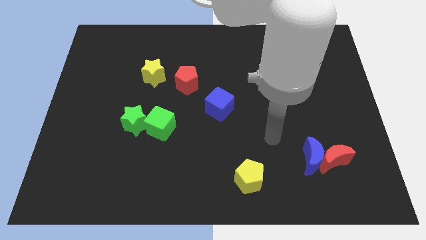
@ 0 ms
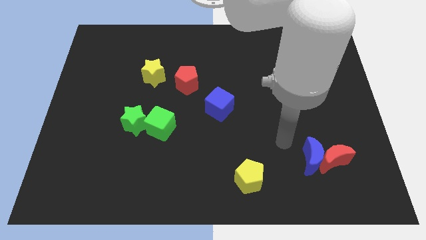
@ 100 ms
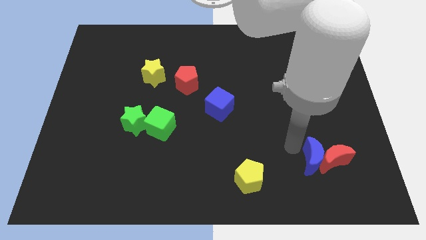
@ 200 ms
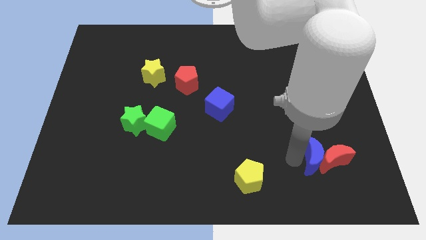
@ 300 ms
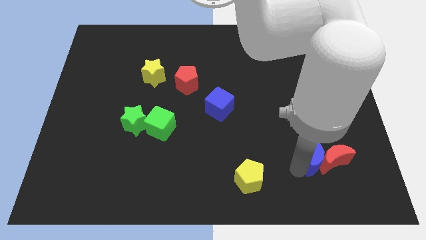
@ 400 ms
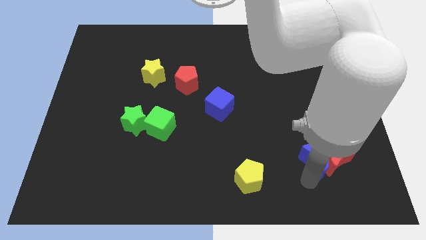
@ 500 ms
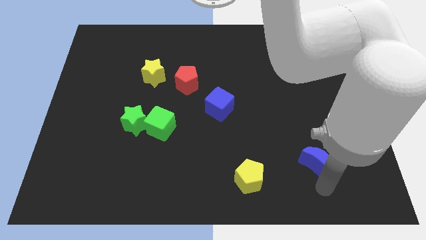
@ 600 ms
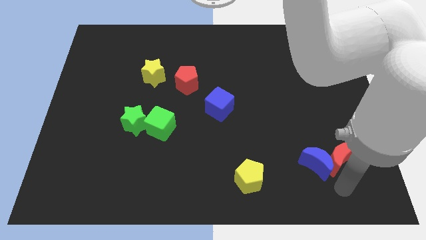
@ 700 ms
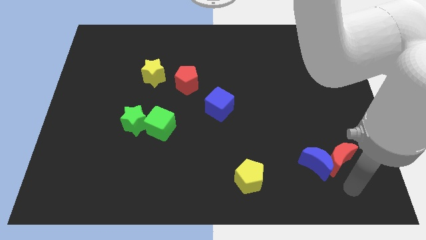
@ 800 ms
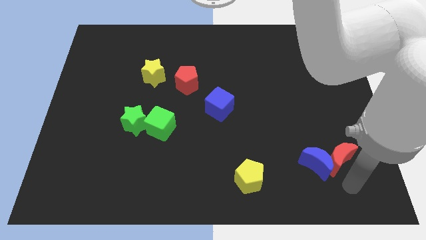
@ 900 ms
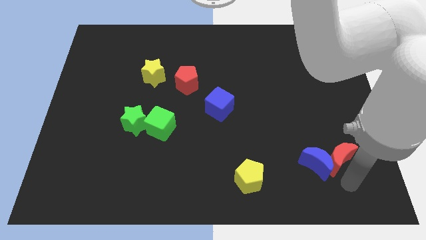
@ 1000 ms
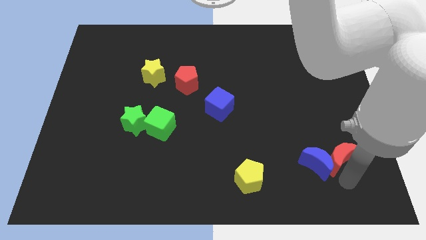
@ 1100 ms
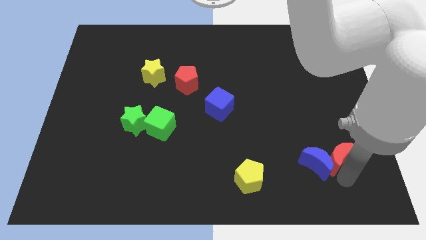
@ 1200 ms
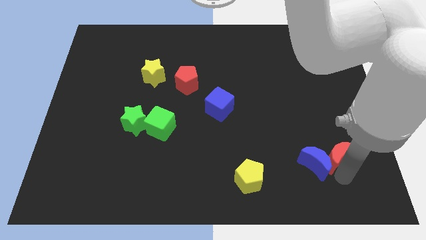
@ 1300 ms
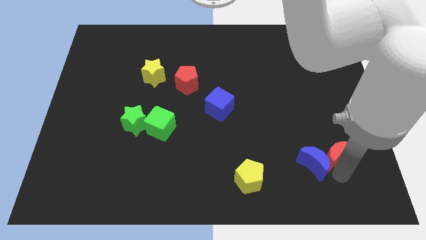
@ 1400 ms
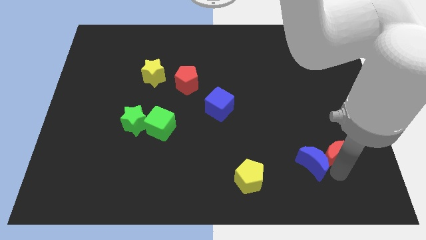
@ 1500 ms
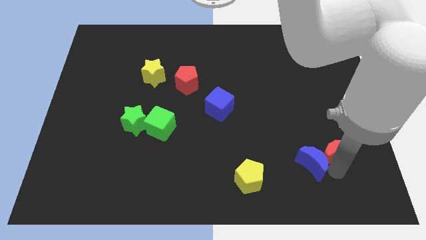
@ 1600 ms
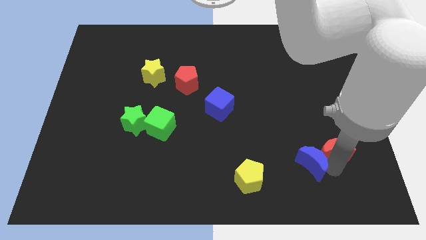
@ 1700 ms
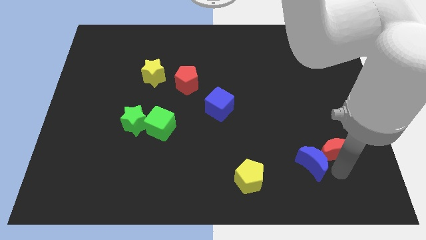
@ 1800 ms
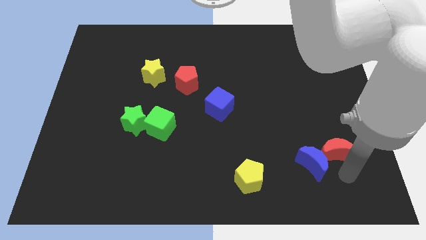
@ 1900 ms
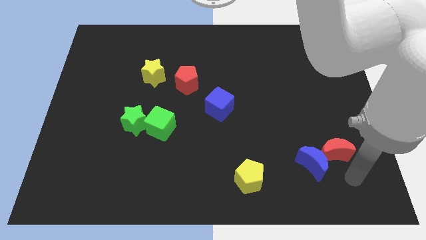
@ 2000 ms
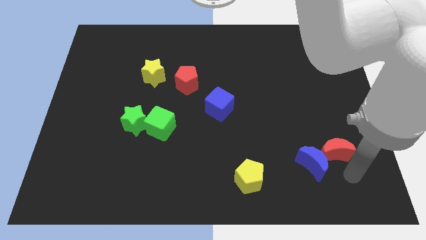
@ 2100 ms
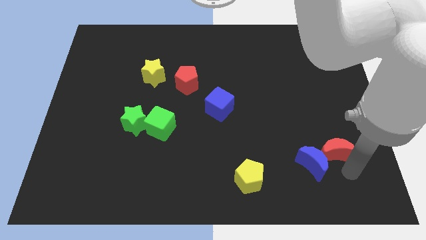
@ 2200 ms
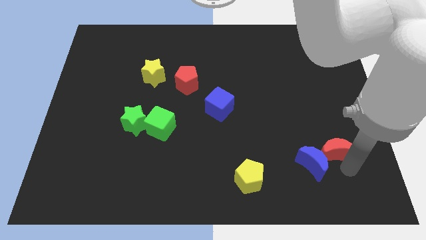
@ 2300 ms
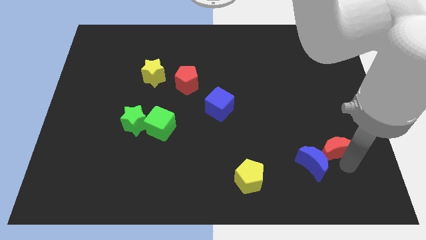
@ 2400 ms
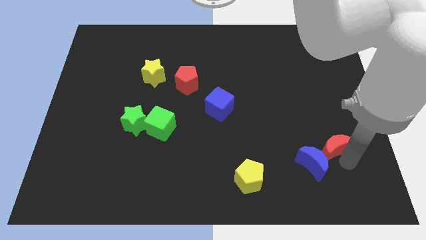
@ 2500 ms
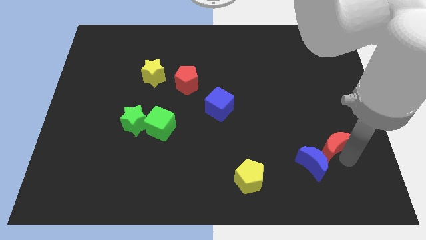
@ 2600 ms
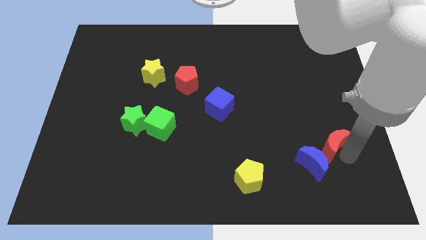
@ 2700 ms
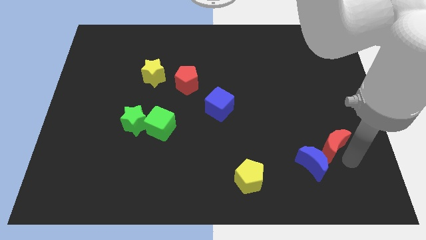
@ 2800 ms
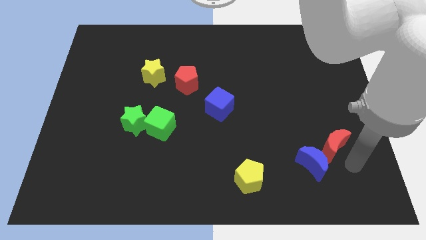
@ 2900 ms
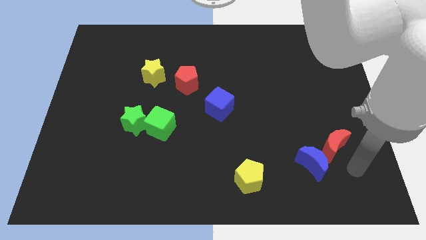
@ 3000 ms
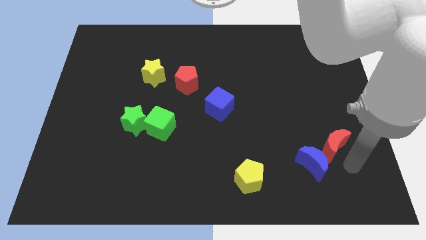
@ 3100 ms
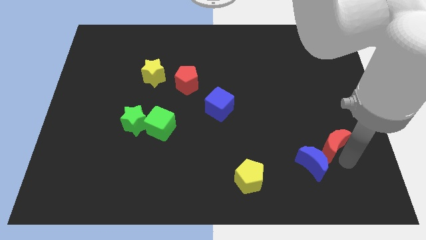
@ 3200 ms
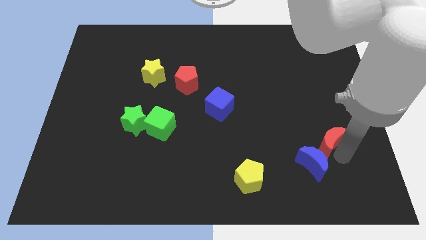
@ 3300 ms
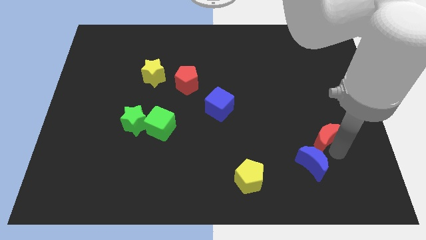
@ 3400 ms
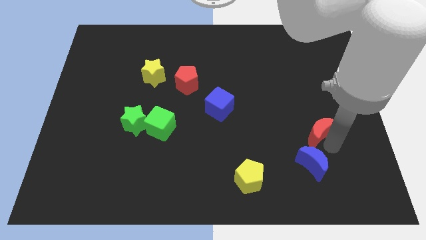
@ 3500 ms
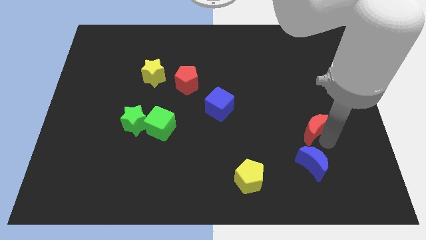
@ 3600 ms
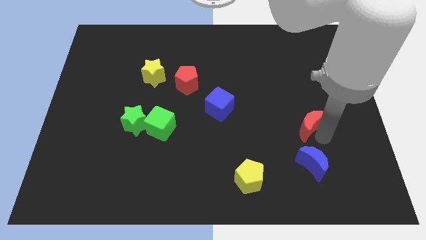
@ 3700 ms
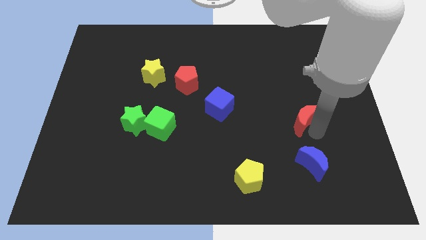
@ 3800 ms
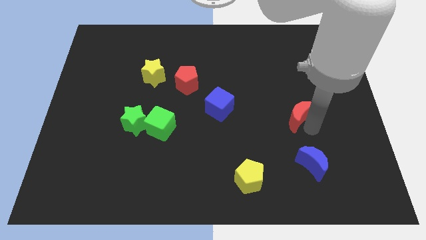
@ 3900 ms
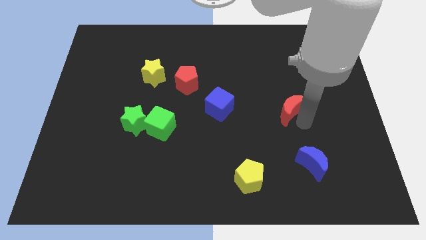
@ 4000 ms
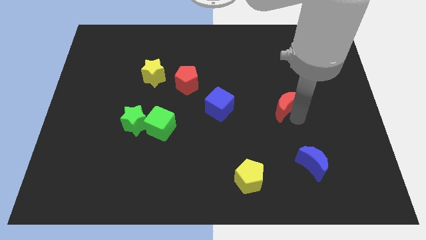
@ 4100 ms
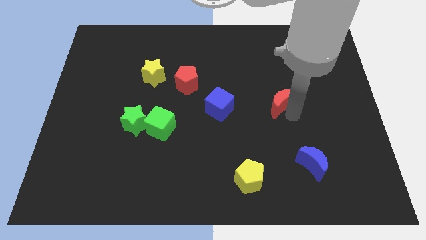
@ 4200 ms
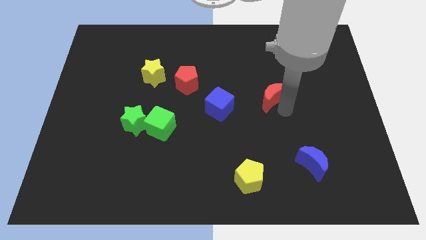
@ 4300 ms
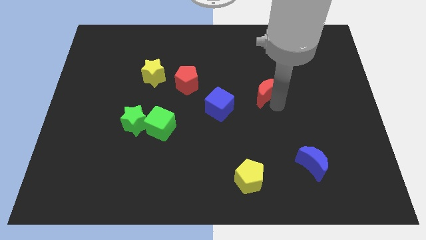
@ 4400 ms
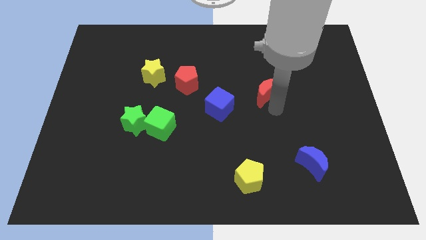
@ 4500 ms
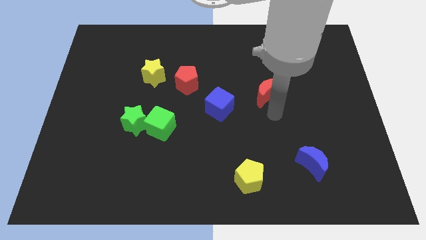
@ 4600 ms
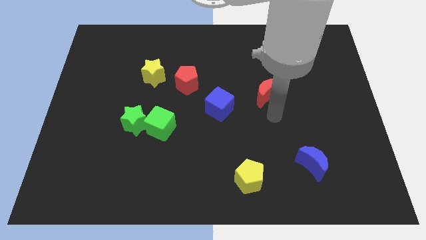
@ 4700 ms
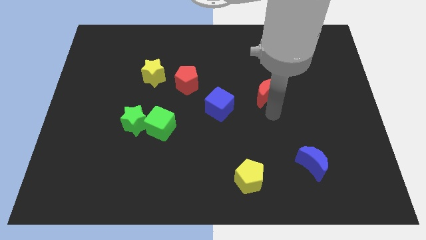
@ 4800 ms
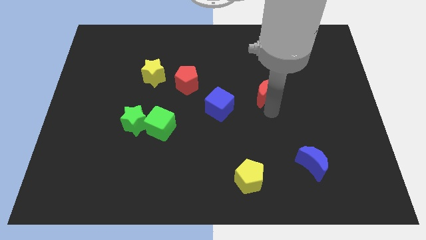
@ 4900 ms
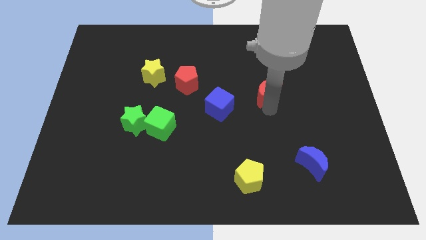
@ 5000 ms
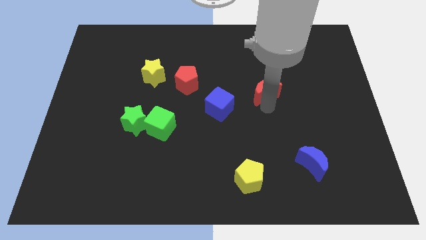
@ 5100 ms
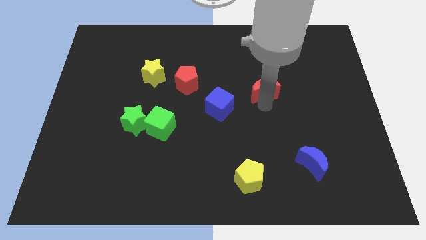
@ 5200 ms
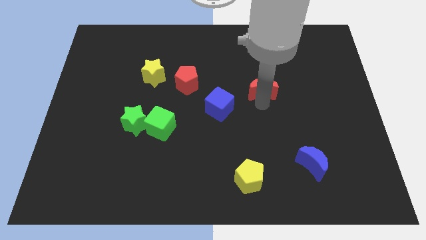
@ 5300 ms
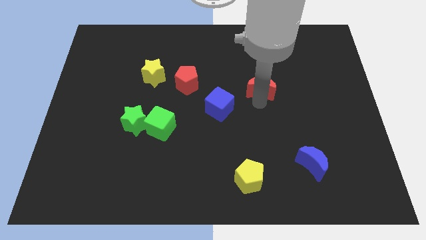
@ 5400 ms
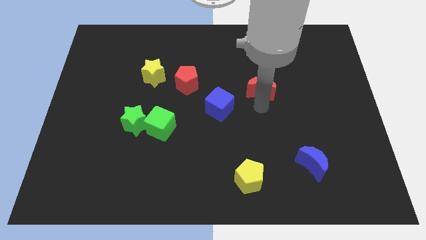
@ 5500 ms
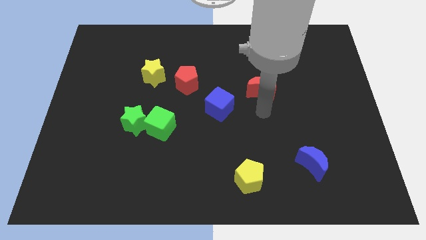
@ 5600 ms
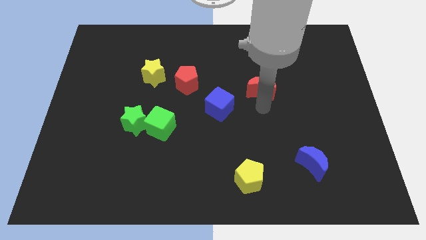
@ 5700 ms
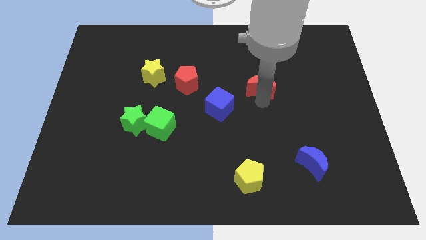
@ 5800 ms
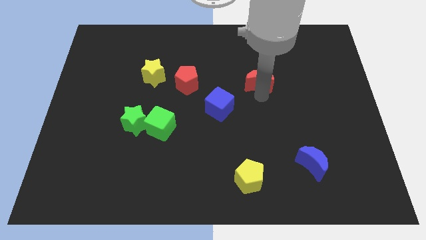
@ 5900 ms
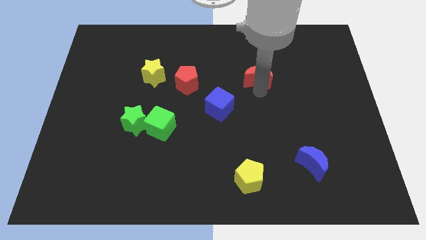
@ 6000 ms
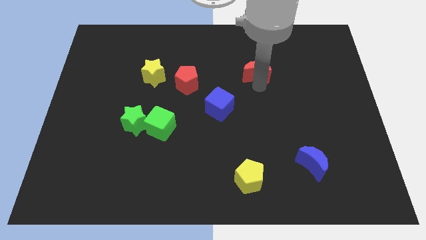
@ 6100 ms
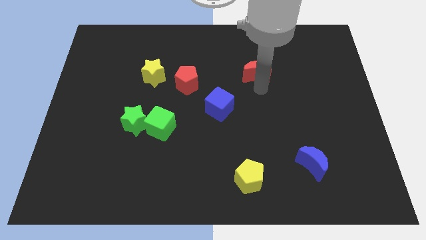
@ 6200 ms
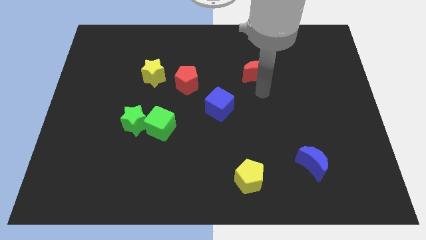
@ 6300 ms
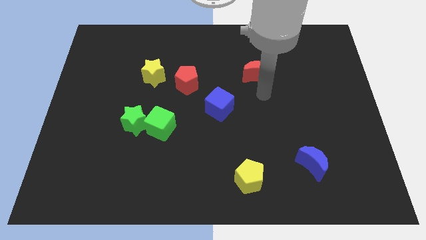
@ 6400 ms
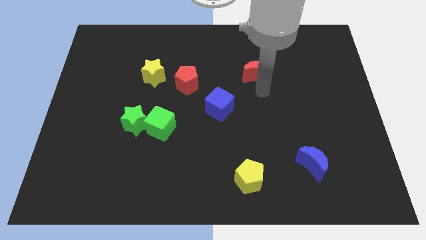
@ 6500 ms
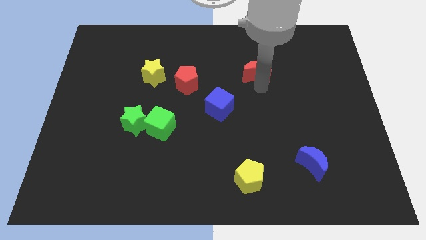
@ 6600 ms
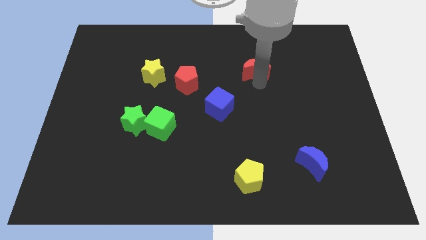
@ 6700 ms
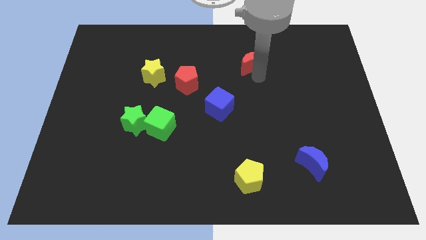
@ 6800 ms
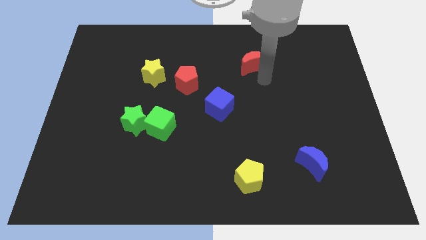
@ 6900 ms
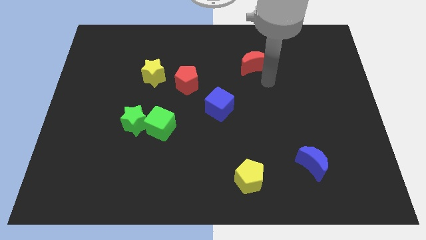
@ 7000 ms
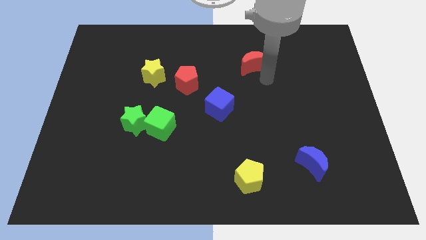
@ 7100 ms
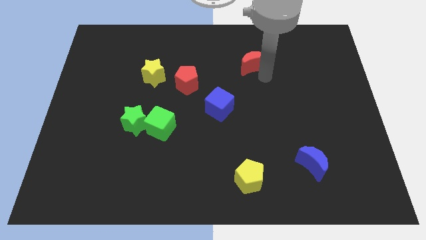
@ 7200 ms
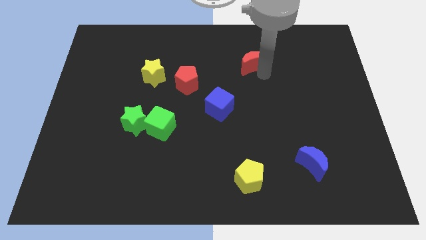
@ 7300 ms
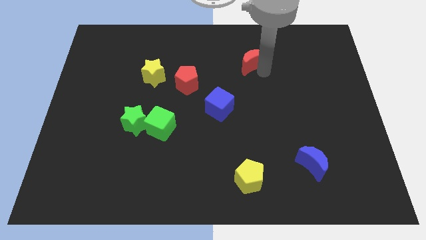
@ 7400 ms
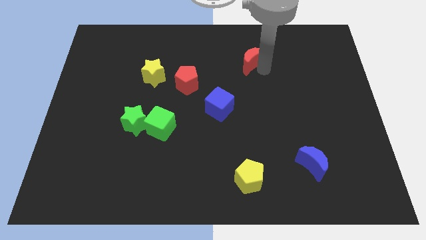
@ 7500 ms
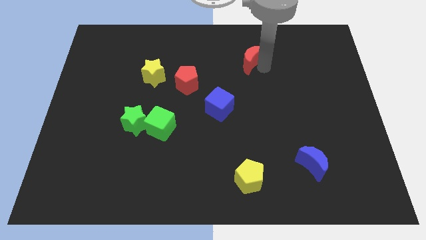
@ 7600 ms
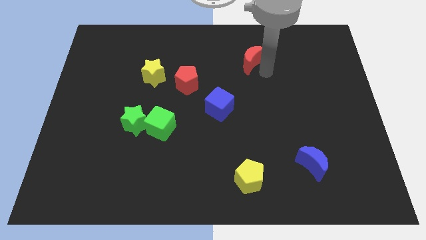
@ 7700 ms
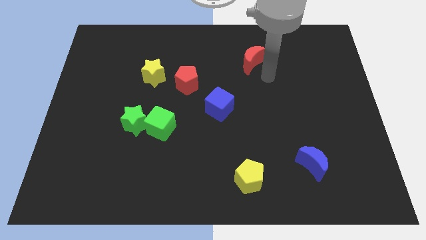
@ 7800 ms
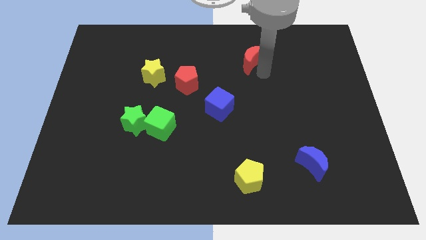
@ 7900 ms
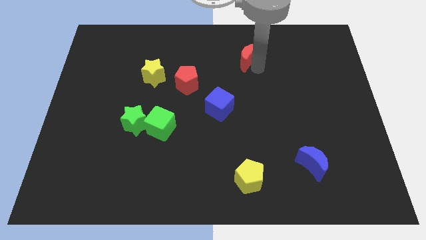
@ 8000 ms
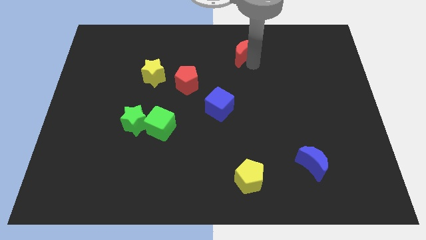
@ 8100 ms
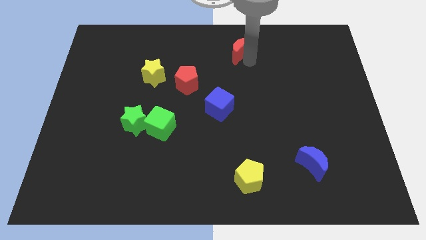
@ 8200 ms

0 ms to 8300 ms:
move the red moon to the top
